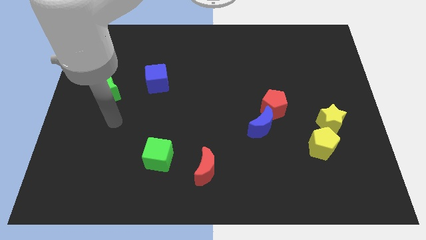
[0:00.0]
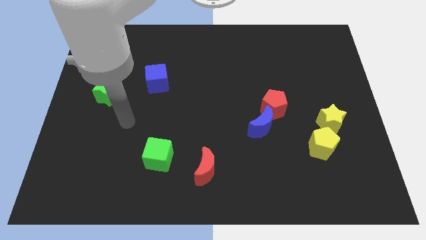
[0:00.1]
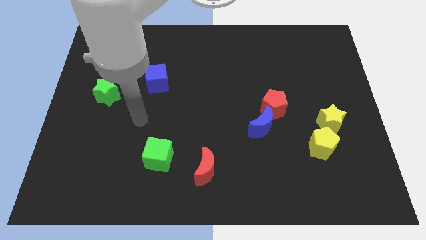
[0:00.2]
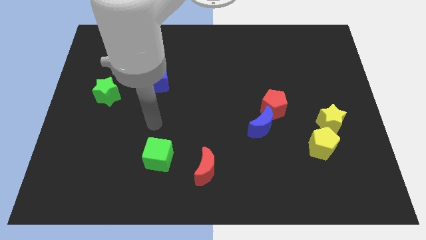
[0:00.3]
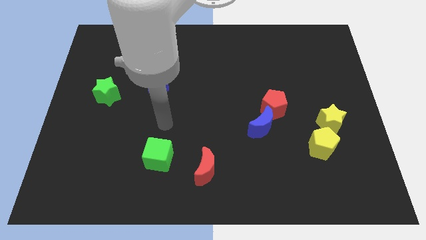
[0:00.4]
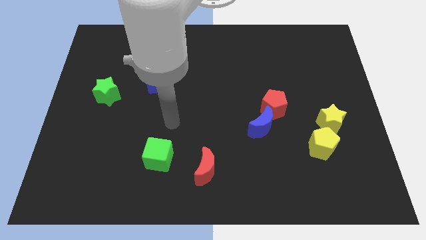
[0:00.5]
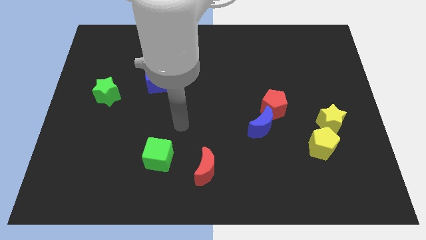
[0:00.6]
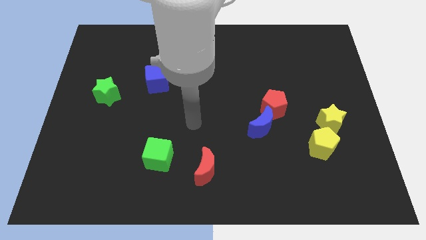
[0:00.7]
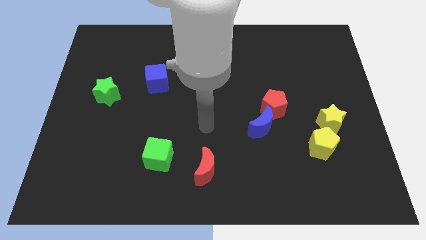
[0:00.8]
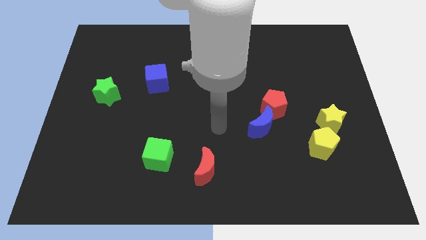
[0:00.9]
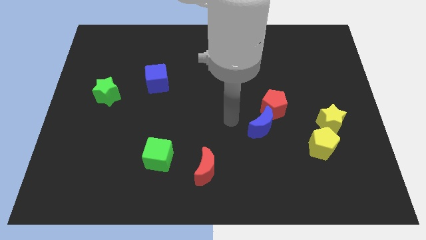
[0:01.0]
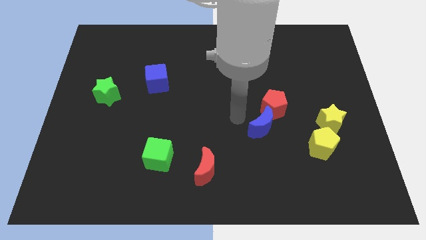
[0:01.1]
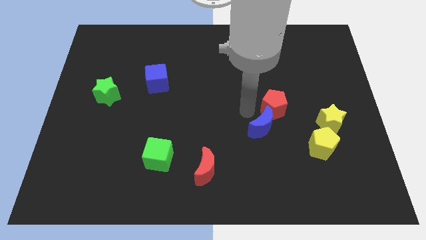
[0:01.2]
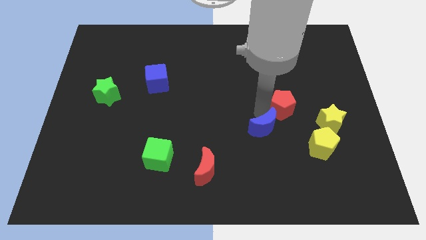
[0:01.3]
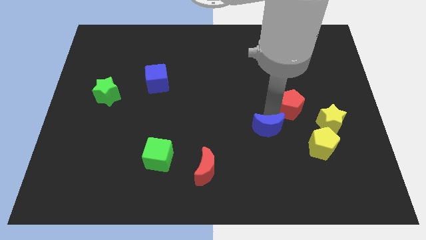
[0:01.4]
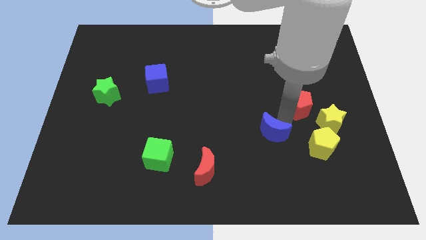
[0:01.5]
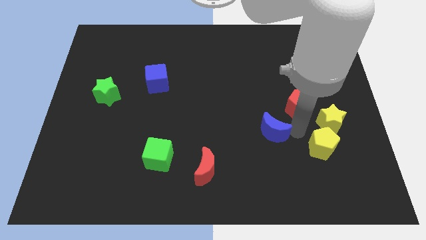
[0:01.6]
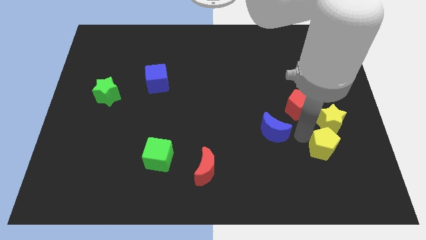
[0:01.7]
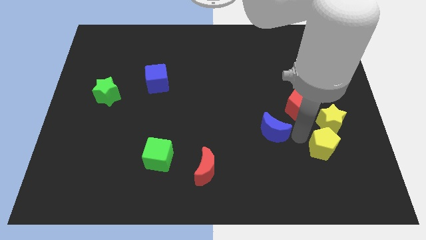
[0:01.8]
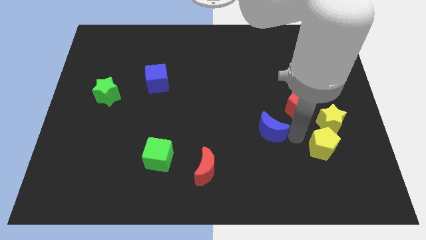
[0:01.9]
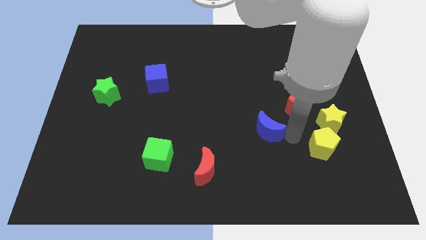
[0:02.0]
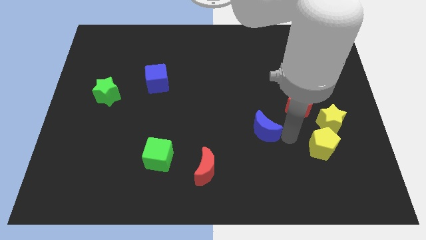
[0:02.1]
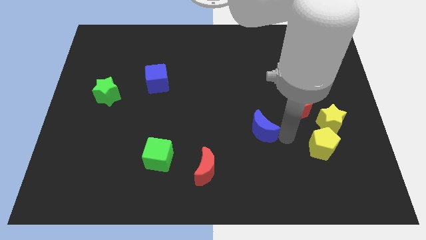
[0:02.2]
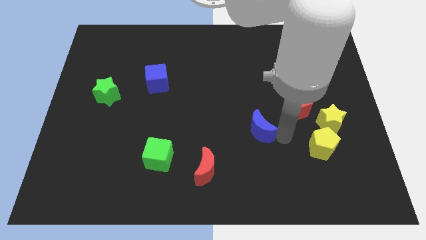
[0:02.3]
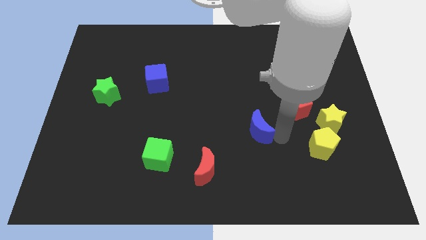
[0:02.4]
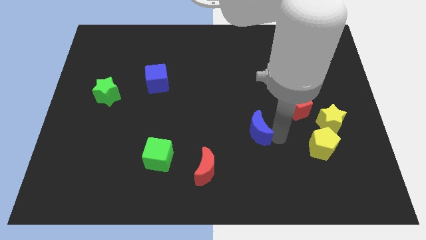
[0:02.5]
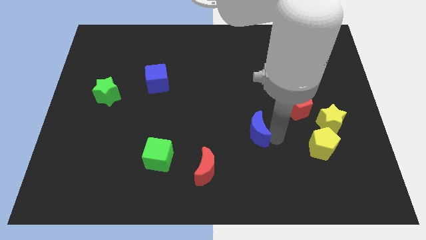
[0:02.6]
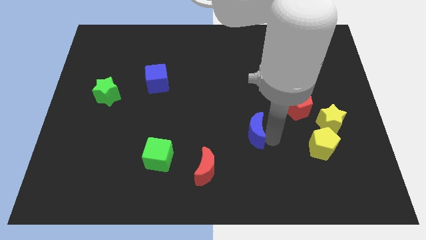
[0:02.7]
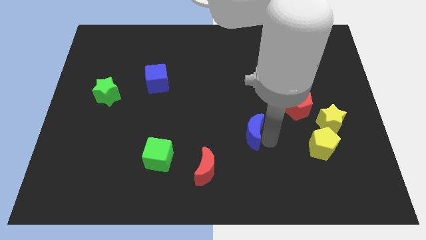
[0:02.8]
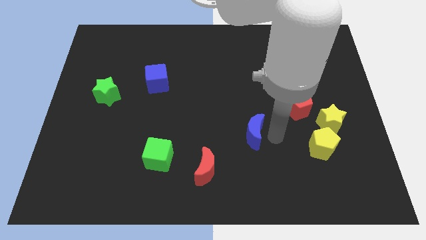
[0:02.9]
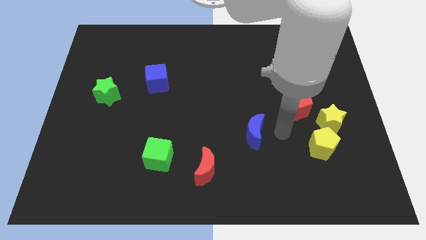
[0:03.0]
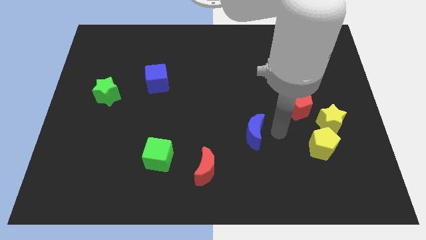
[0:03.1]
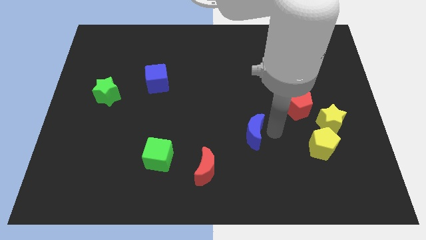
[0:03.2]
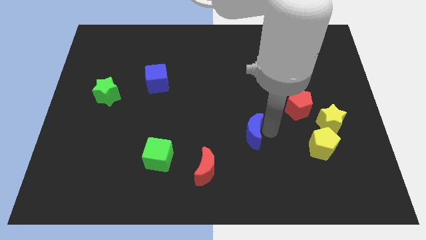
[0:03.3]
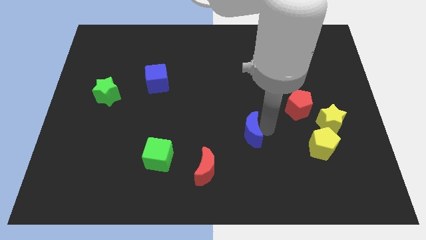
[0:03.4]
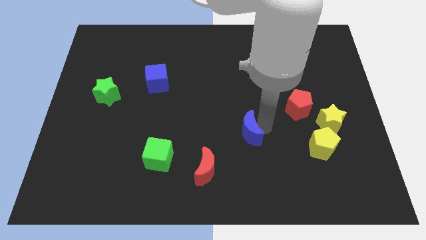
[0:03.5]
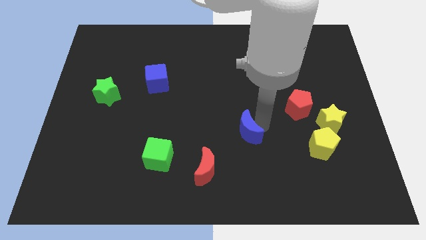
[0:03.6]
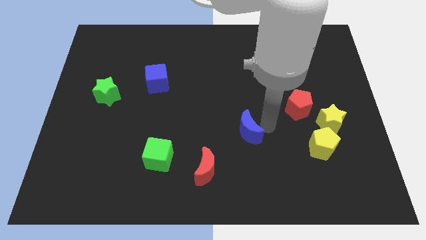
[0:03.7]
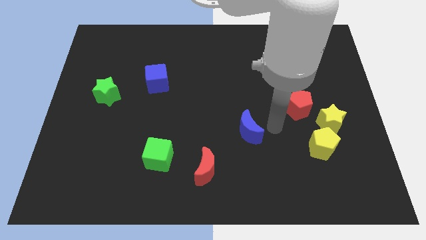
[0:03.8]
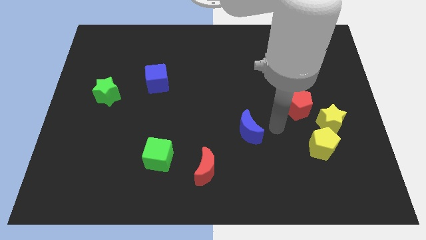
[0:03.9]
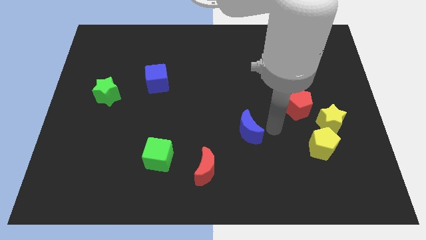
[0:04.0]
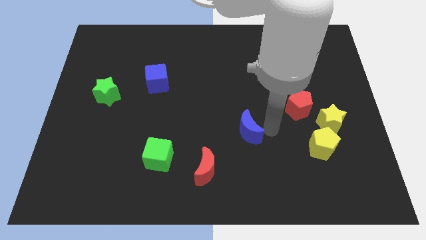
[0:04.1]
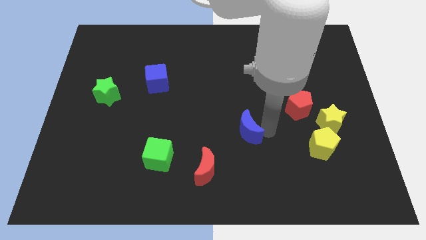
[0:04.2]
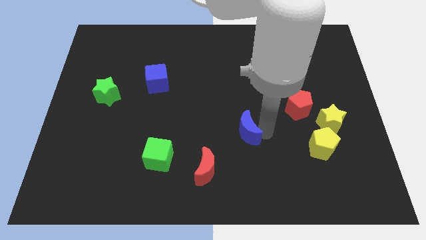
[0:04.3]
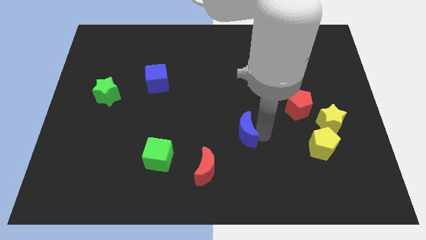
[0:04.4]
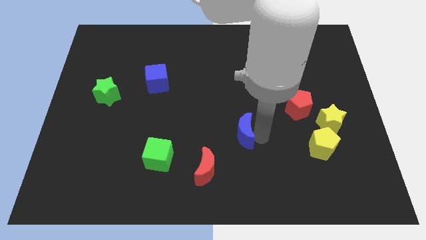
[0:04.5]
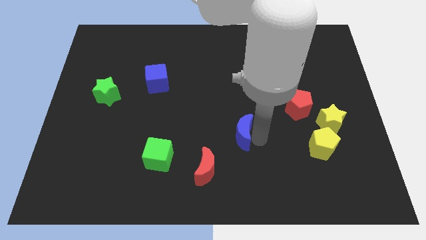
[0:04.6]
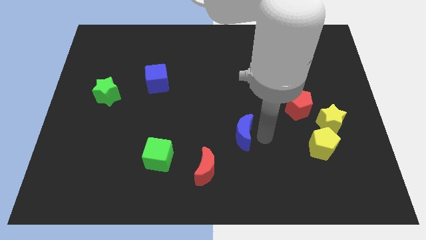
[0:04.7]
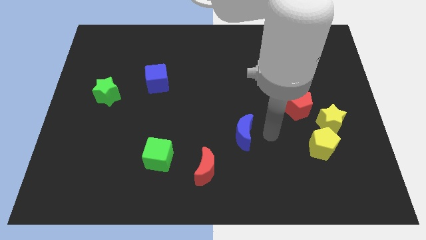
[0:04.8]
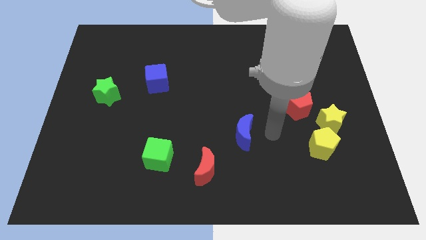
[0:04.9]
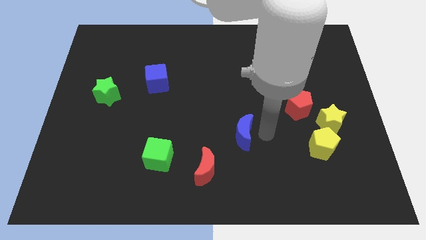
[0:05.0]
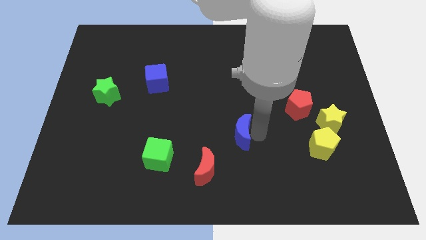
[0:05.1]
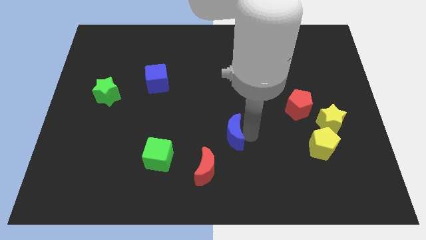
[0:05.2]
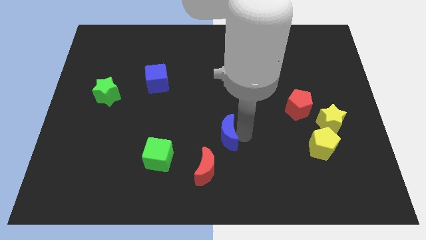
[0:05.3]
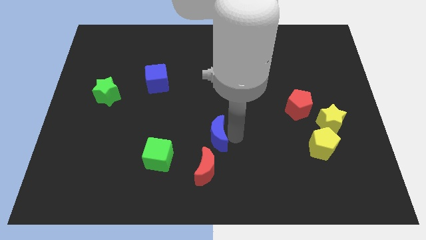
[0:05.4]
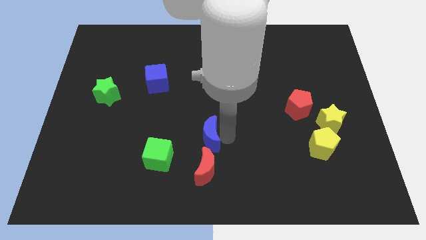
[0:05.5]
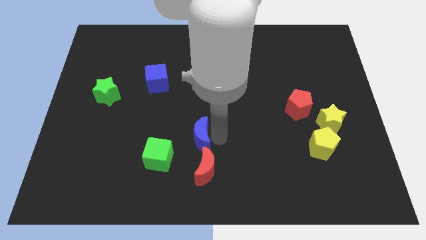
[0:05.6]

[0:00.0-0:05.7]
move the blue moon diagonally up and to the right of the green cube

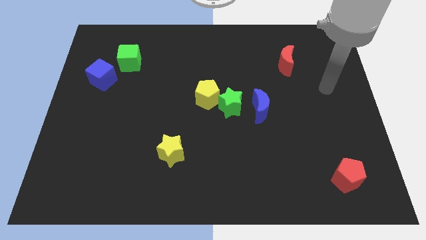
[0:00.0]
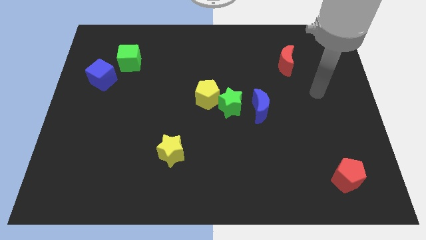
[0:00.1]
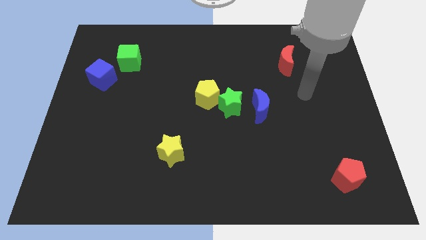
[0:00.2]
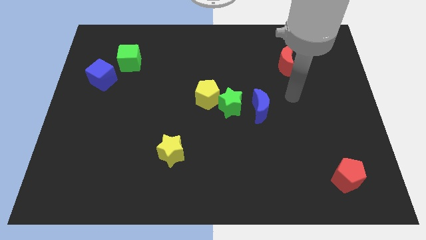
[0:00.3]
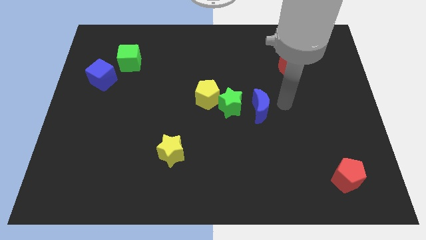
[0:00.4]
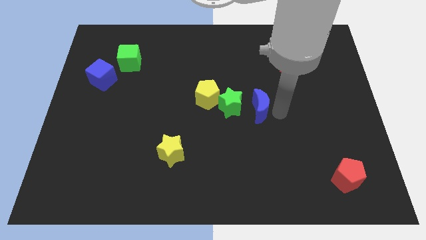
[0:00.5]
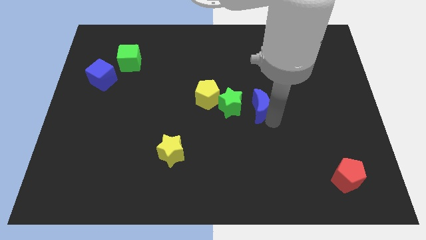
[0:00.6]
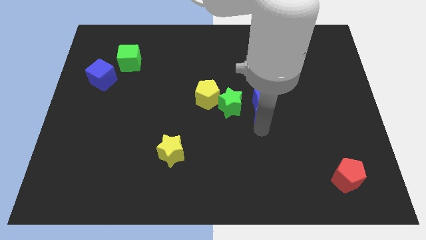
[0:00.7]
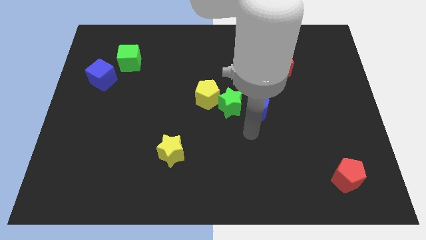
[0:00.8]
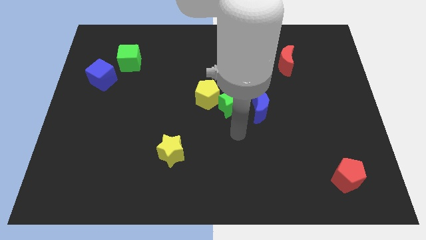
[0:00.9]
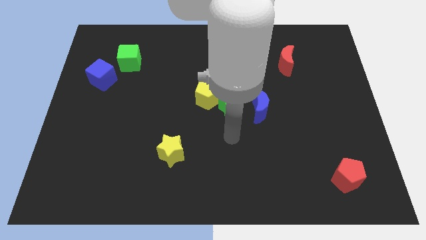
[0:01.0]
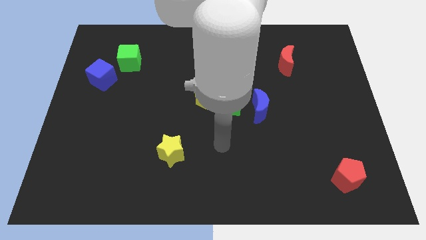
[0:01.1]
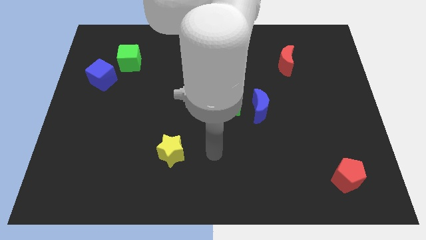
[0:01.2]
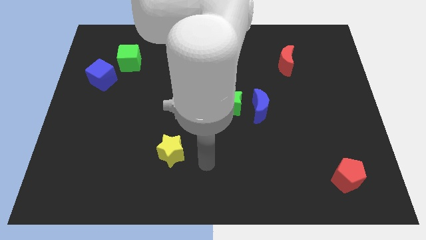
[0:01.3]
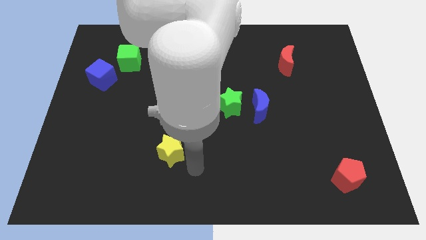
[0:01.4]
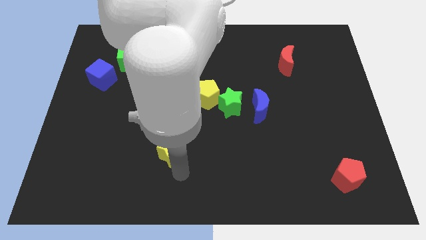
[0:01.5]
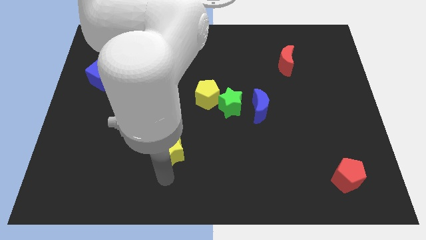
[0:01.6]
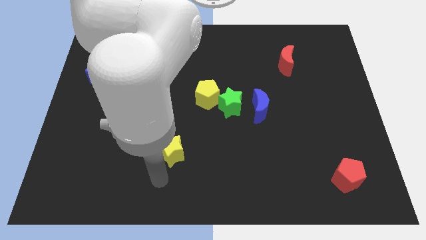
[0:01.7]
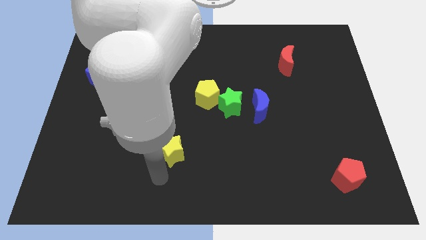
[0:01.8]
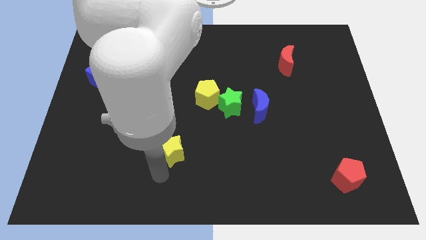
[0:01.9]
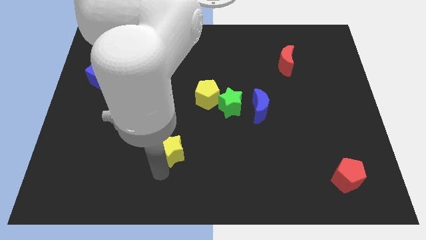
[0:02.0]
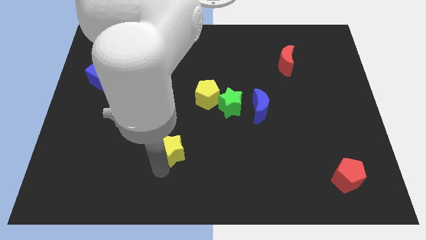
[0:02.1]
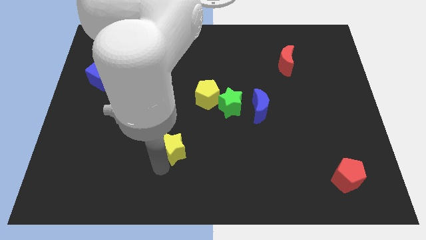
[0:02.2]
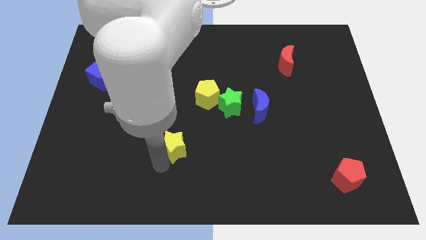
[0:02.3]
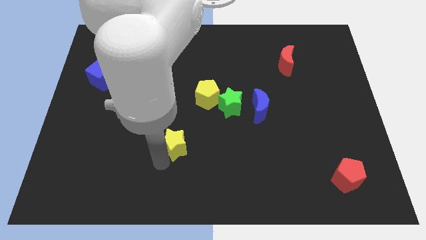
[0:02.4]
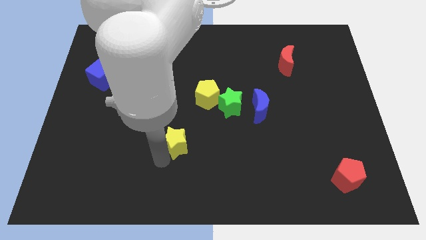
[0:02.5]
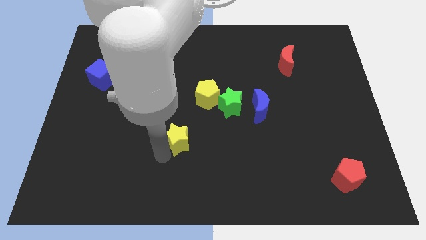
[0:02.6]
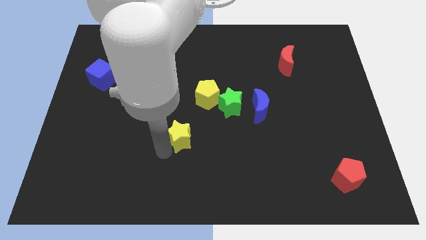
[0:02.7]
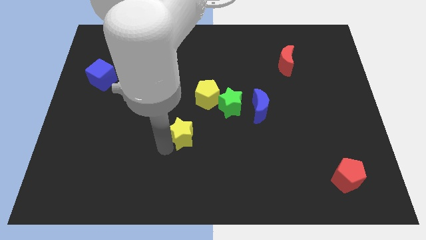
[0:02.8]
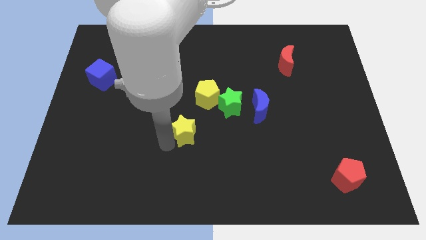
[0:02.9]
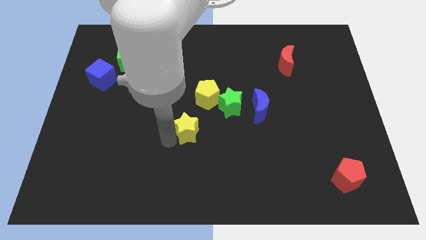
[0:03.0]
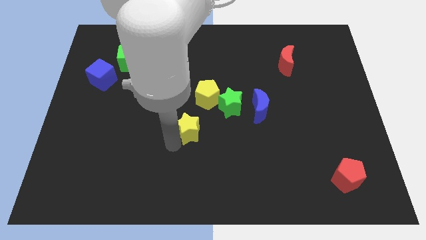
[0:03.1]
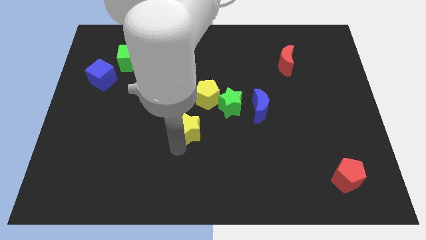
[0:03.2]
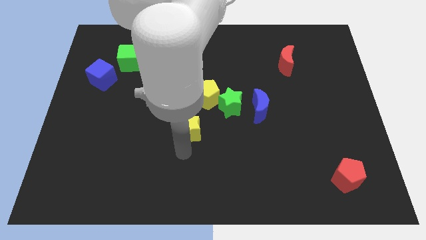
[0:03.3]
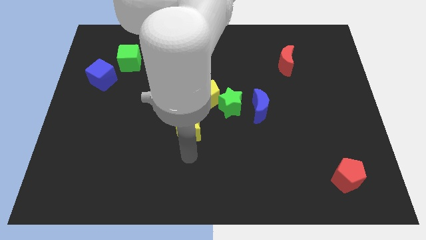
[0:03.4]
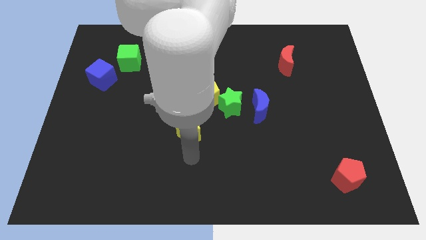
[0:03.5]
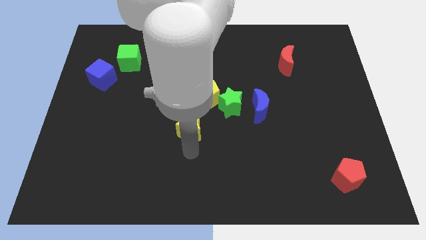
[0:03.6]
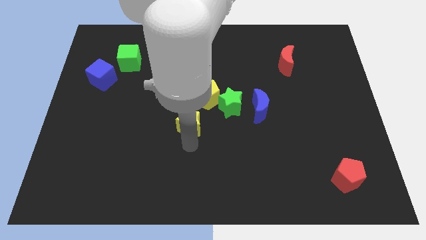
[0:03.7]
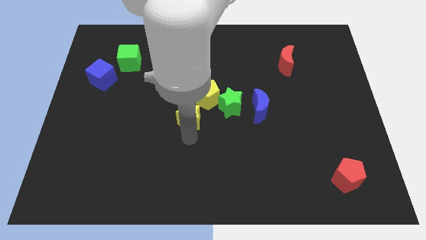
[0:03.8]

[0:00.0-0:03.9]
push the yellow star to the left side of the green star
